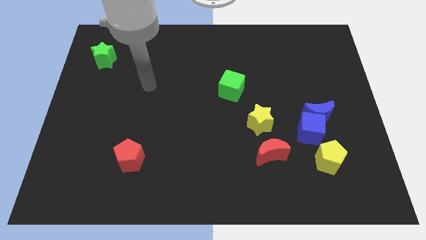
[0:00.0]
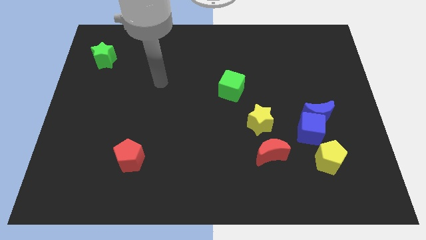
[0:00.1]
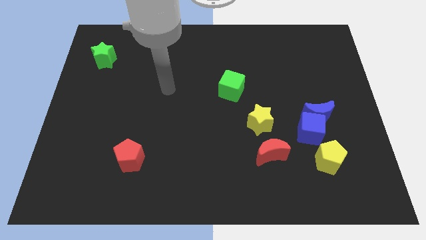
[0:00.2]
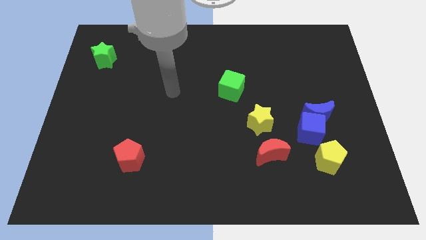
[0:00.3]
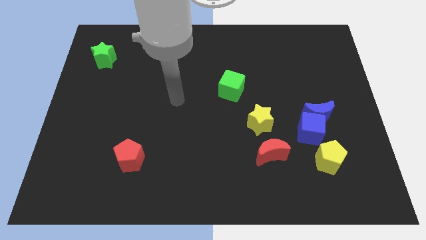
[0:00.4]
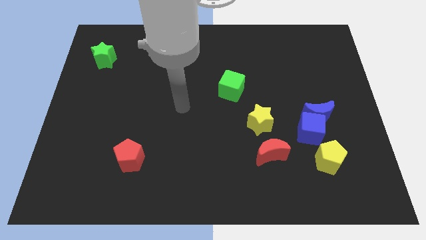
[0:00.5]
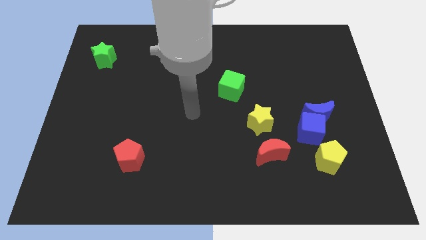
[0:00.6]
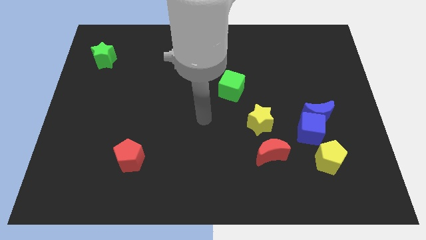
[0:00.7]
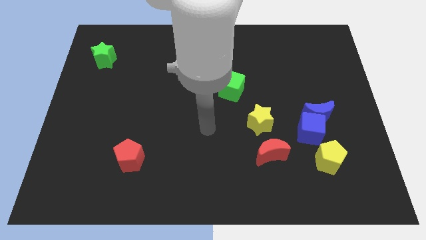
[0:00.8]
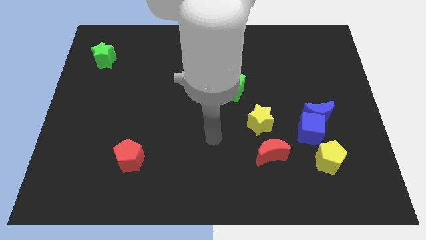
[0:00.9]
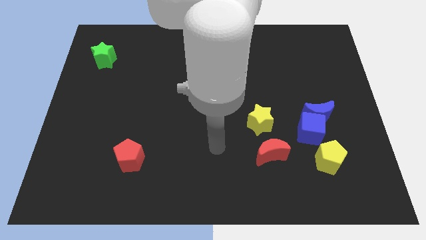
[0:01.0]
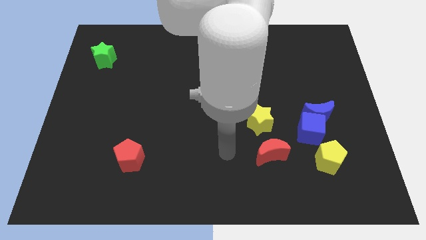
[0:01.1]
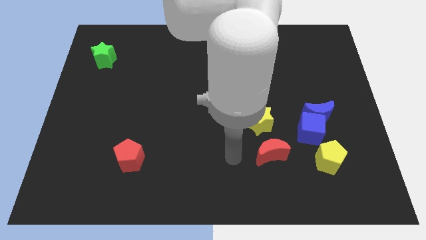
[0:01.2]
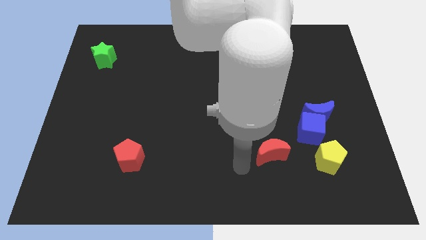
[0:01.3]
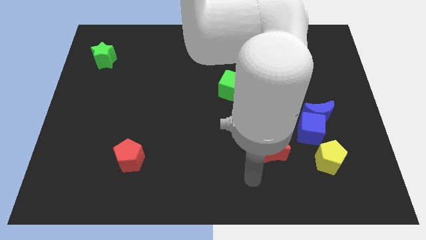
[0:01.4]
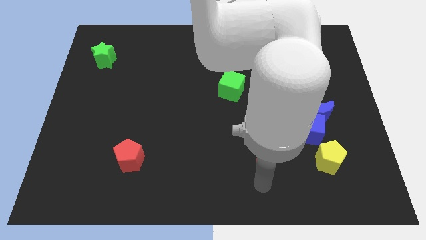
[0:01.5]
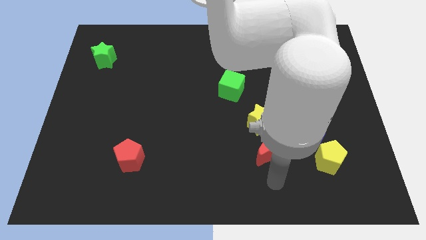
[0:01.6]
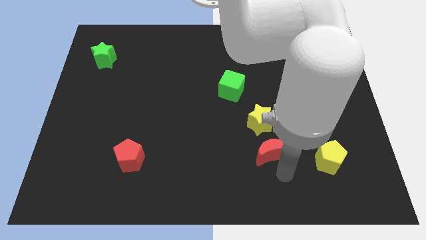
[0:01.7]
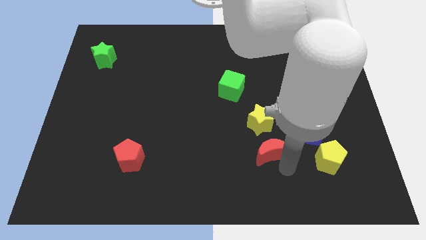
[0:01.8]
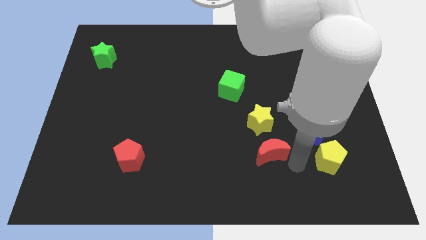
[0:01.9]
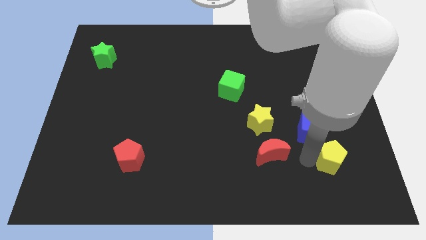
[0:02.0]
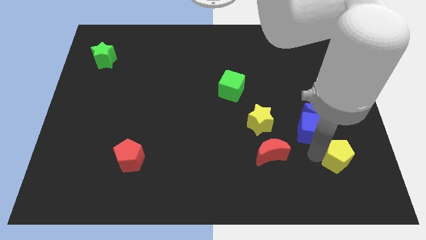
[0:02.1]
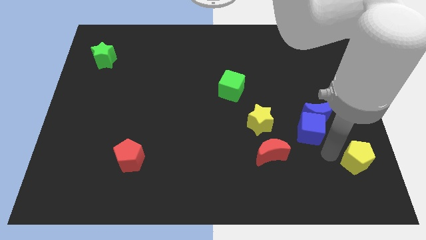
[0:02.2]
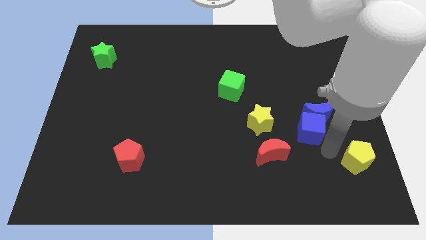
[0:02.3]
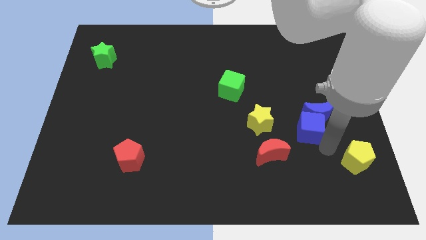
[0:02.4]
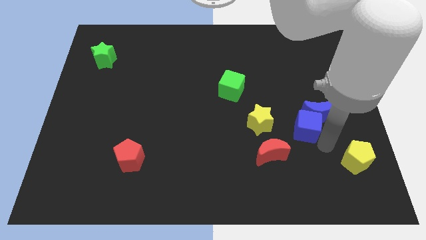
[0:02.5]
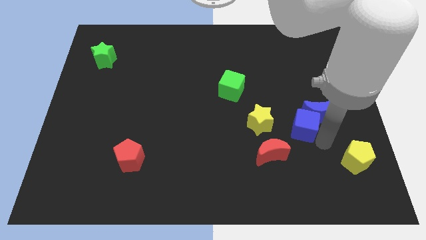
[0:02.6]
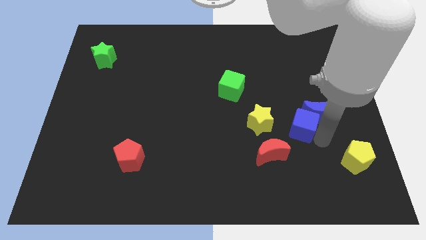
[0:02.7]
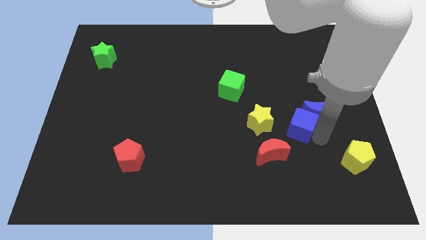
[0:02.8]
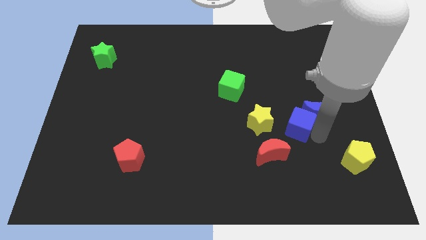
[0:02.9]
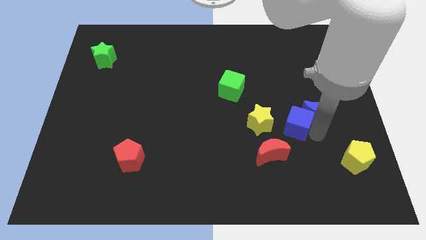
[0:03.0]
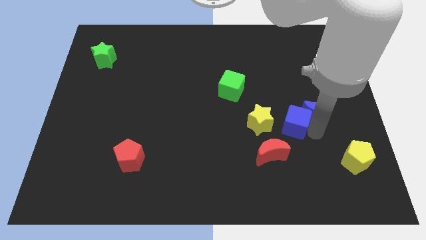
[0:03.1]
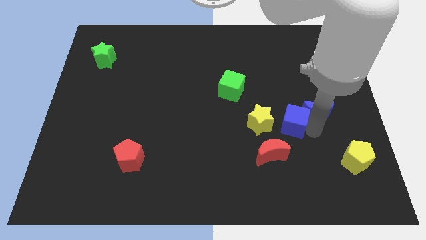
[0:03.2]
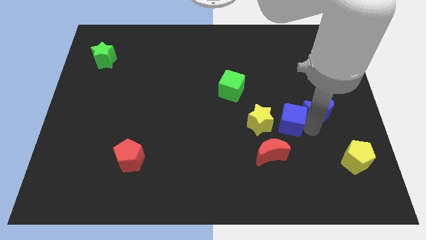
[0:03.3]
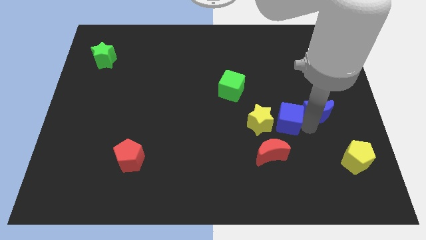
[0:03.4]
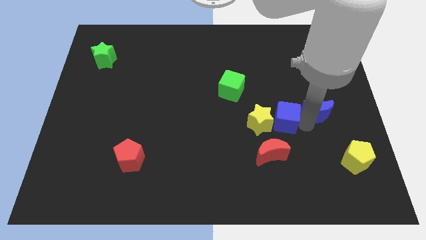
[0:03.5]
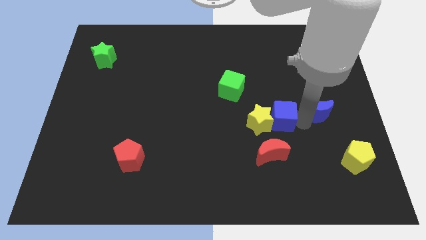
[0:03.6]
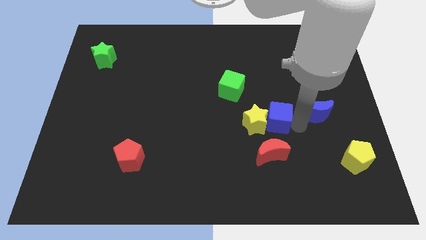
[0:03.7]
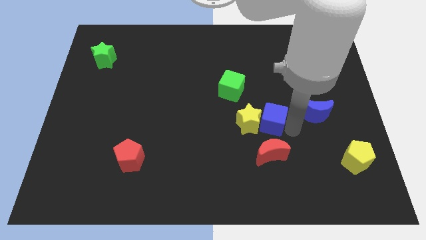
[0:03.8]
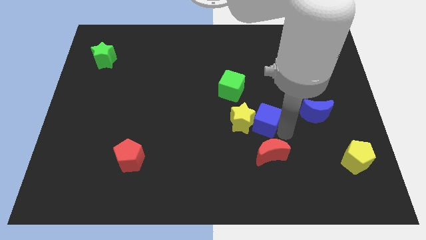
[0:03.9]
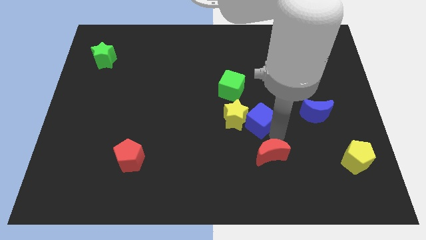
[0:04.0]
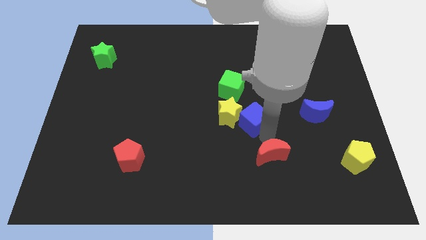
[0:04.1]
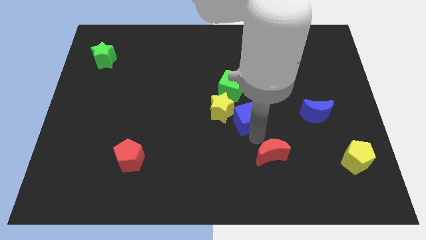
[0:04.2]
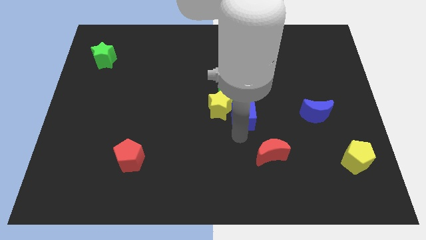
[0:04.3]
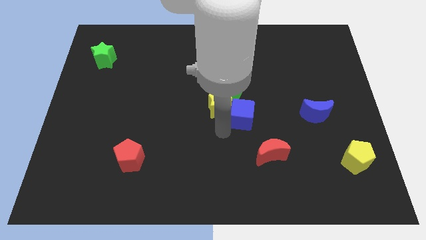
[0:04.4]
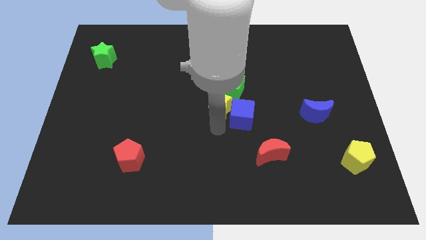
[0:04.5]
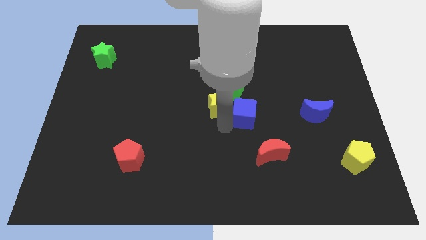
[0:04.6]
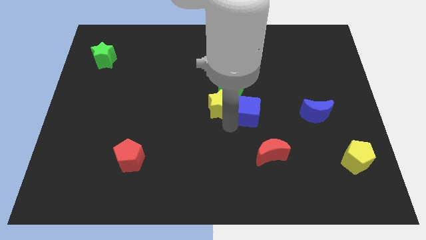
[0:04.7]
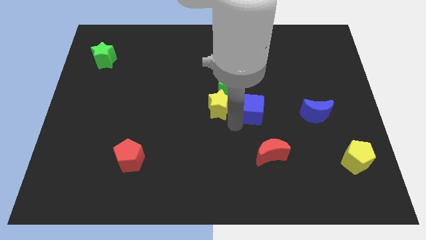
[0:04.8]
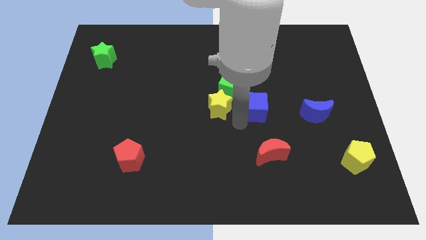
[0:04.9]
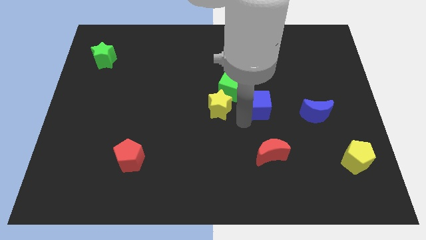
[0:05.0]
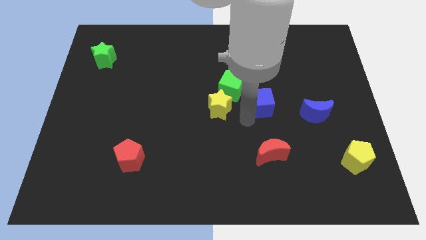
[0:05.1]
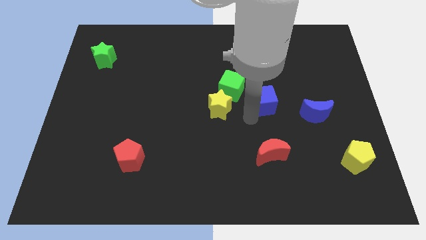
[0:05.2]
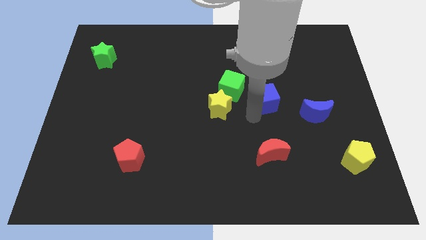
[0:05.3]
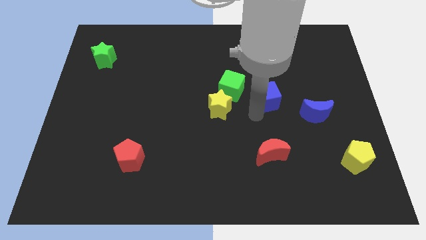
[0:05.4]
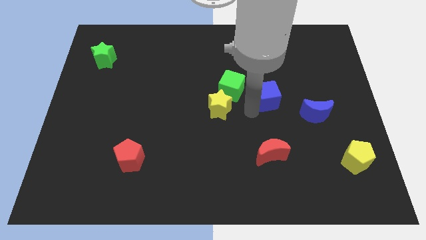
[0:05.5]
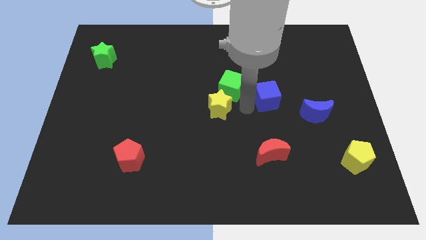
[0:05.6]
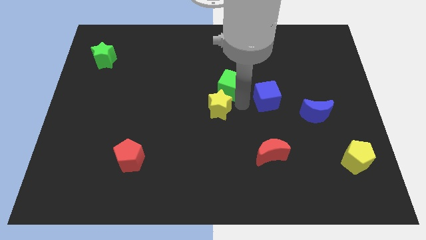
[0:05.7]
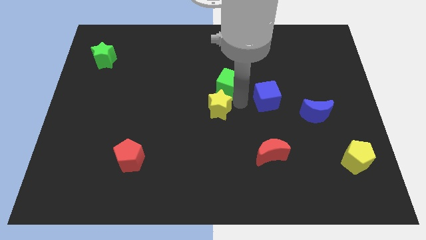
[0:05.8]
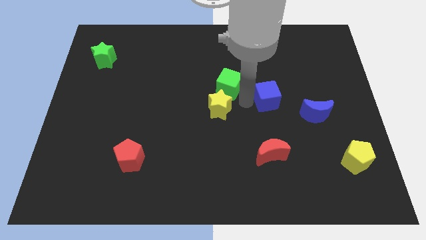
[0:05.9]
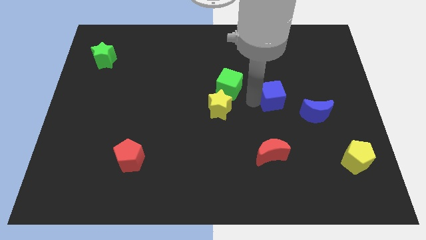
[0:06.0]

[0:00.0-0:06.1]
push the blue cube diagonally up and to the left of the blue moon

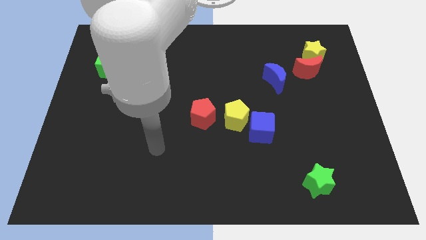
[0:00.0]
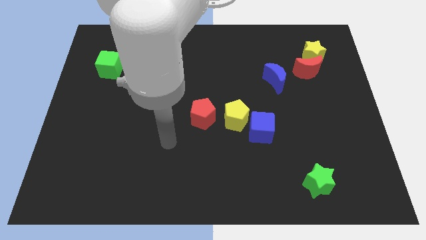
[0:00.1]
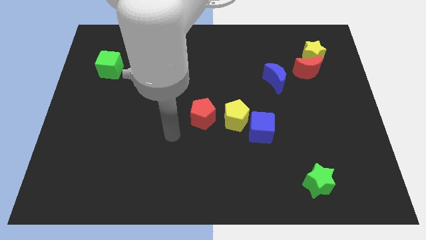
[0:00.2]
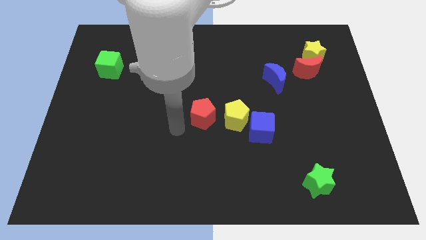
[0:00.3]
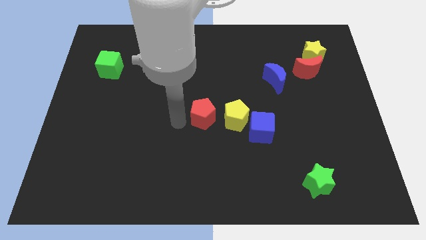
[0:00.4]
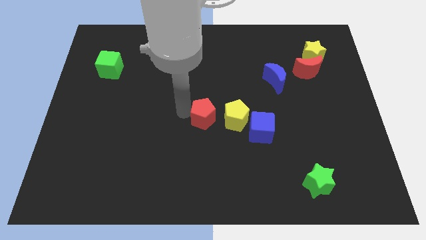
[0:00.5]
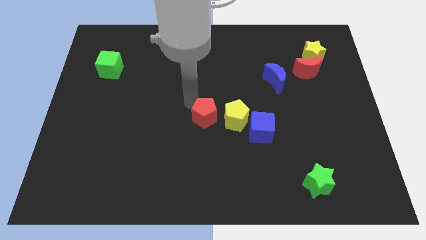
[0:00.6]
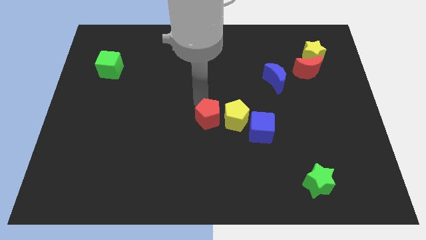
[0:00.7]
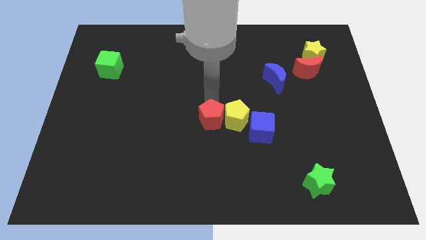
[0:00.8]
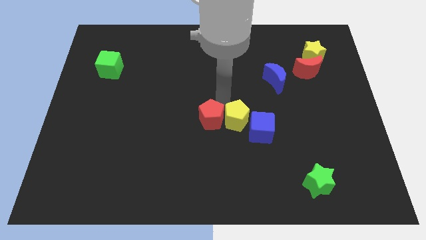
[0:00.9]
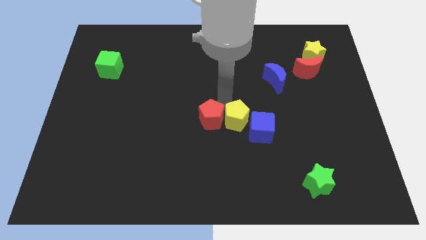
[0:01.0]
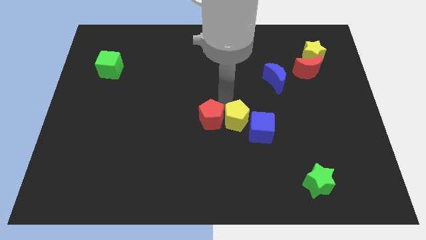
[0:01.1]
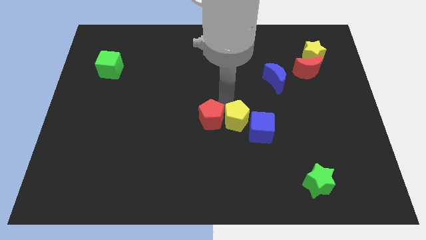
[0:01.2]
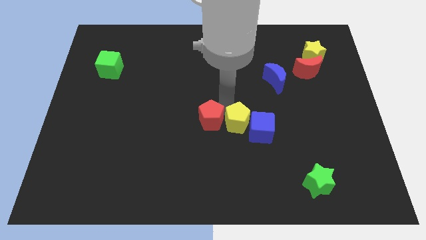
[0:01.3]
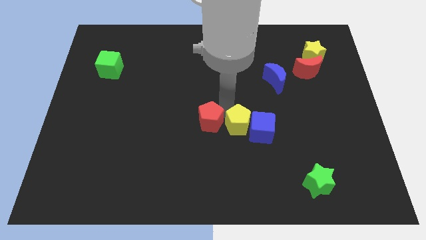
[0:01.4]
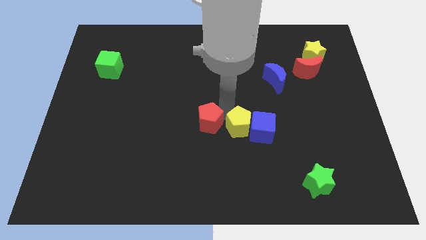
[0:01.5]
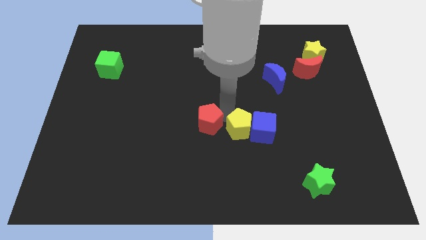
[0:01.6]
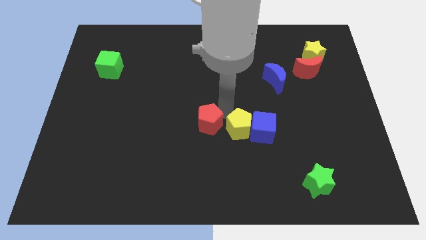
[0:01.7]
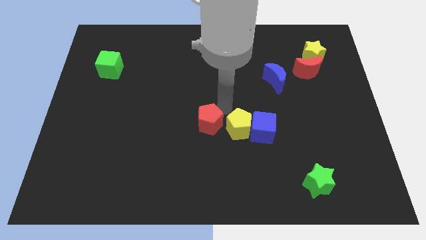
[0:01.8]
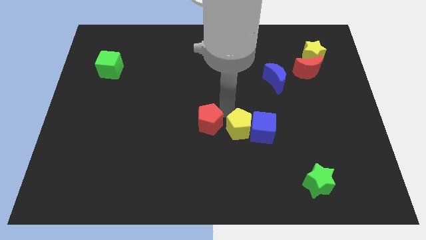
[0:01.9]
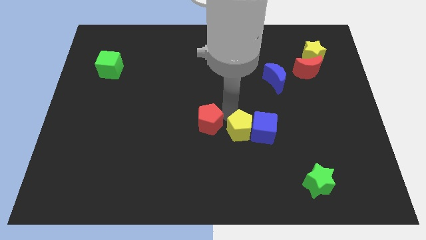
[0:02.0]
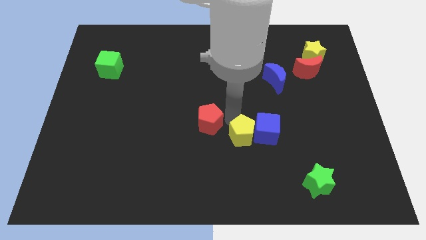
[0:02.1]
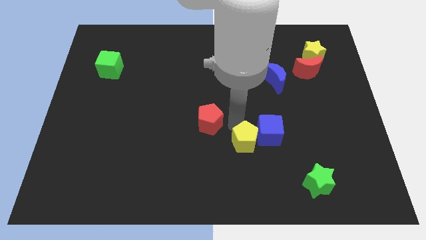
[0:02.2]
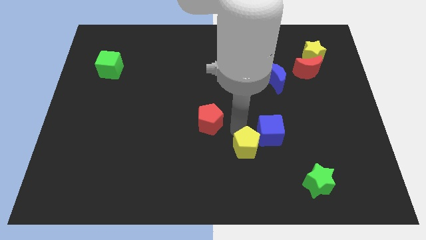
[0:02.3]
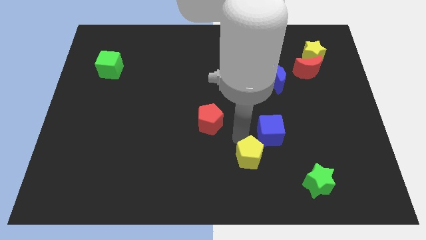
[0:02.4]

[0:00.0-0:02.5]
put the yellow pentagon to the bottom side of the blue cube
